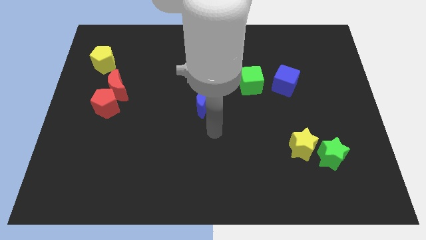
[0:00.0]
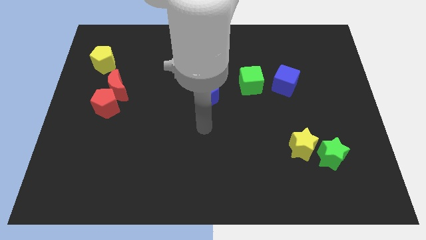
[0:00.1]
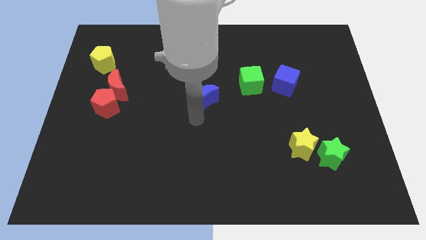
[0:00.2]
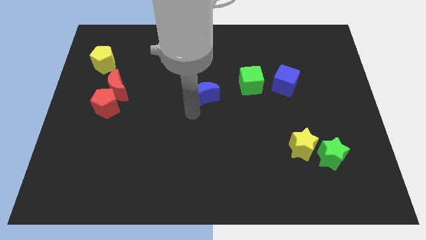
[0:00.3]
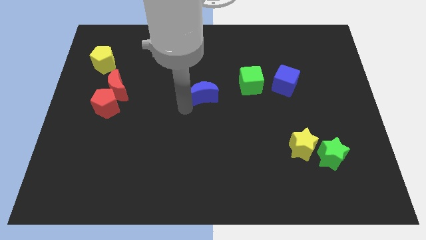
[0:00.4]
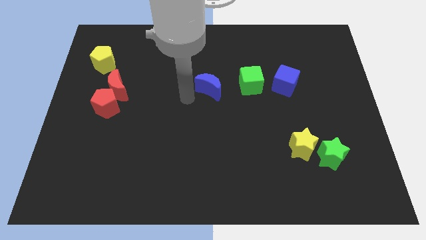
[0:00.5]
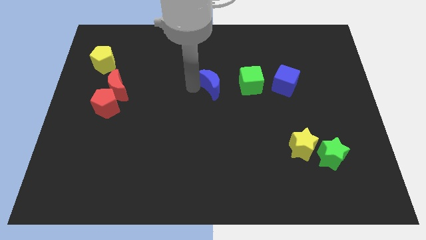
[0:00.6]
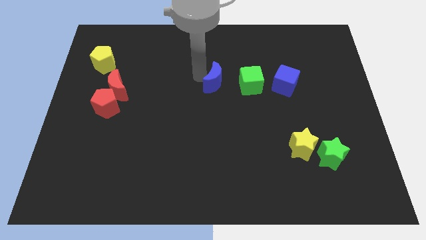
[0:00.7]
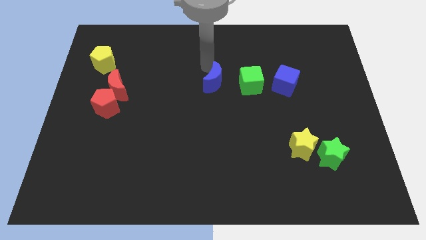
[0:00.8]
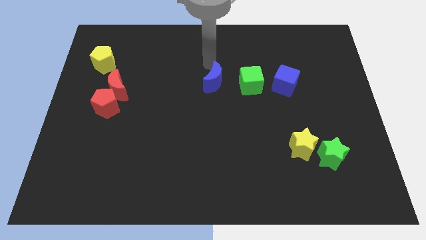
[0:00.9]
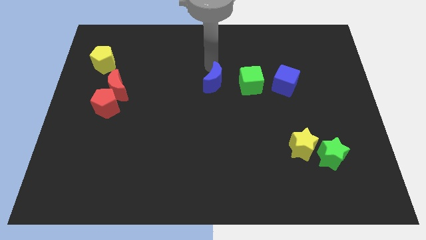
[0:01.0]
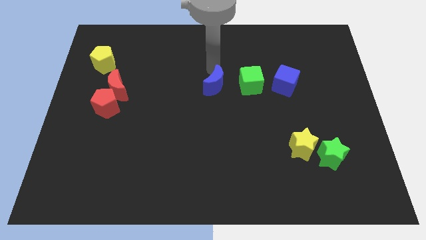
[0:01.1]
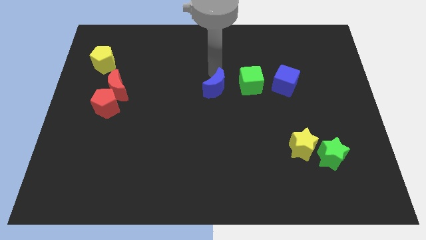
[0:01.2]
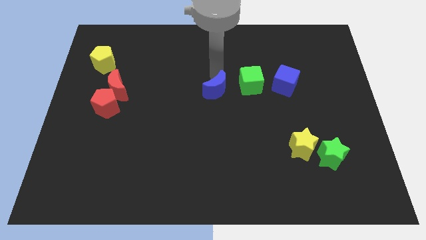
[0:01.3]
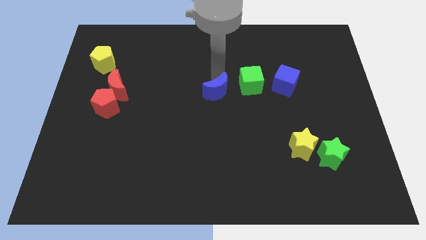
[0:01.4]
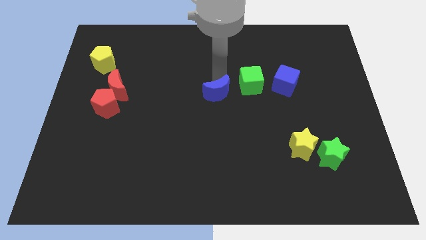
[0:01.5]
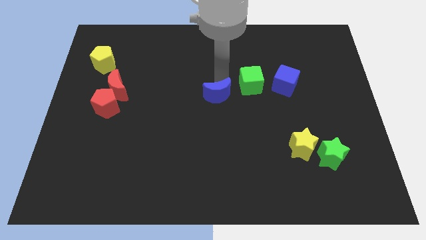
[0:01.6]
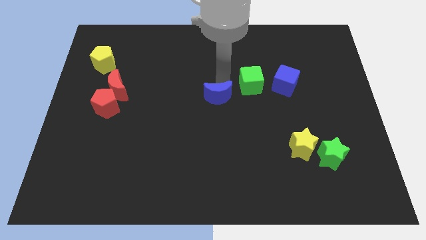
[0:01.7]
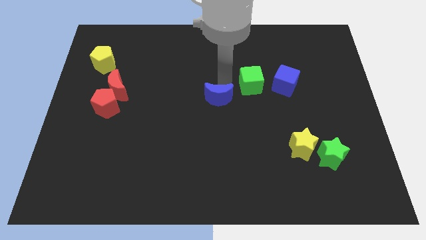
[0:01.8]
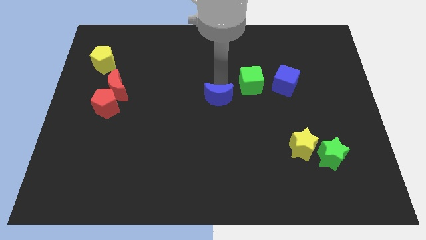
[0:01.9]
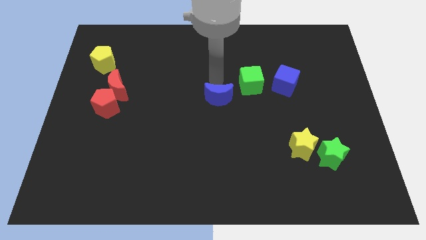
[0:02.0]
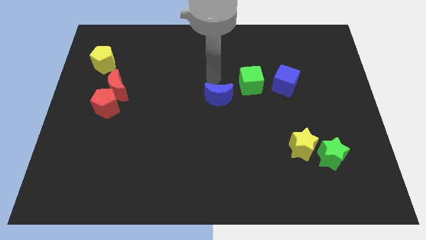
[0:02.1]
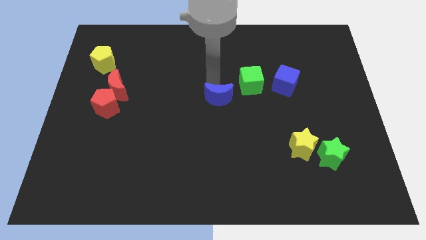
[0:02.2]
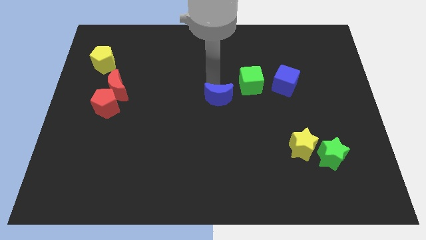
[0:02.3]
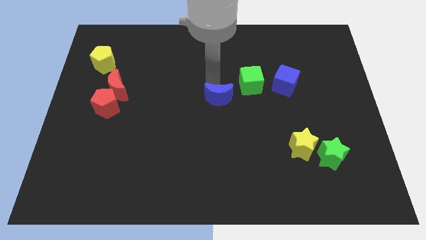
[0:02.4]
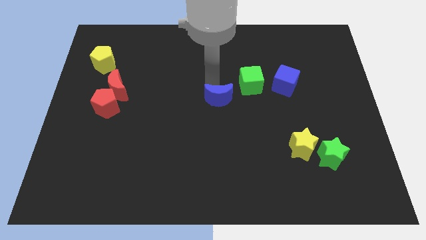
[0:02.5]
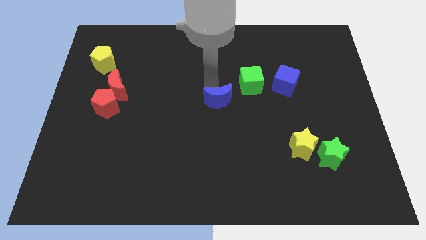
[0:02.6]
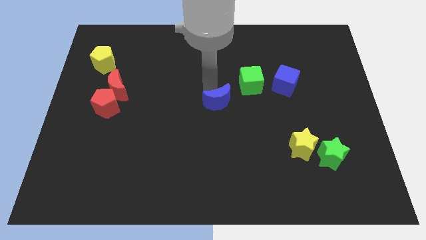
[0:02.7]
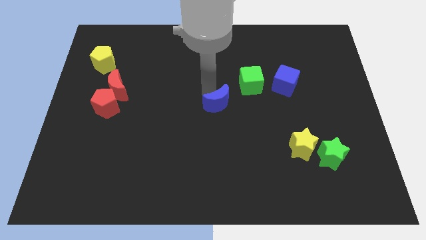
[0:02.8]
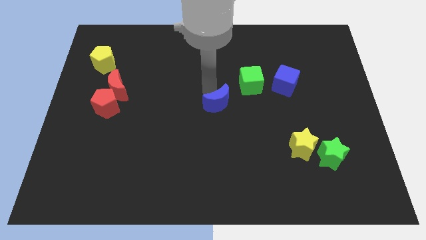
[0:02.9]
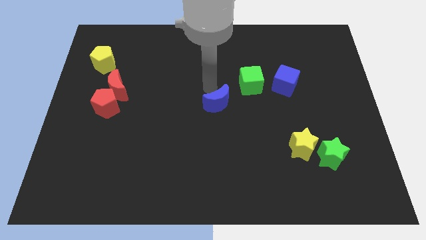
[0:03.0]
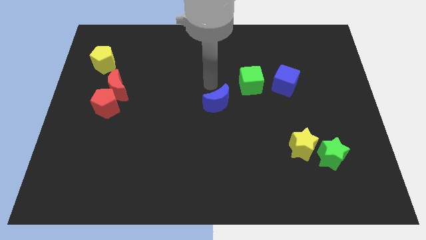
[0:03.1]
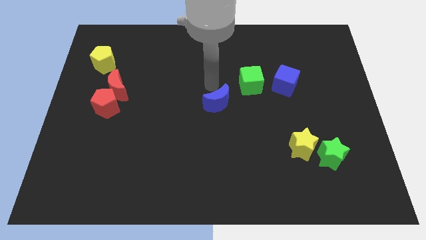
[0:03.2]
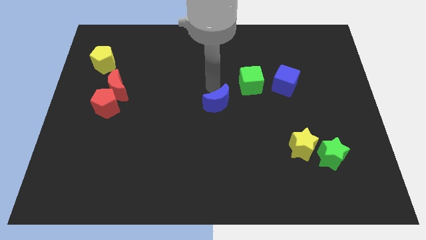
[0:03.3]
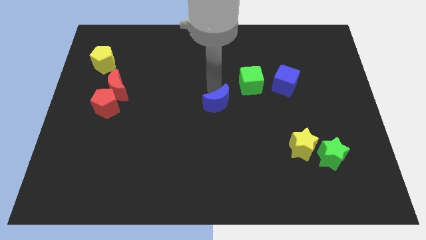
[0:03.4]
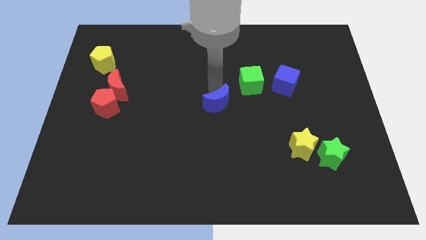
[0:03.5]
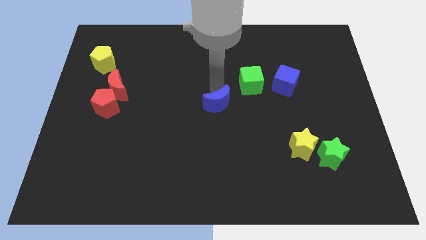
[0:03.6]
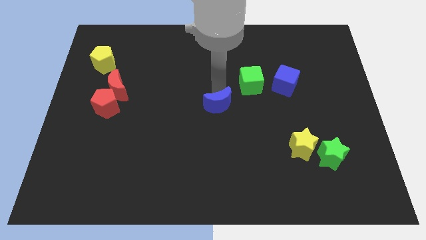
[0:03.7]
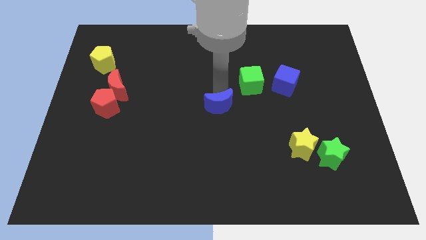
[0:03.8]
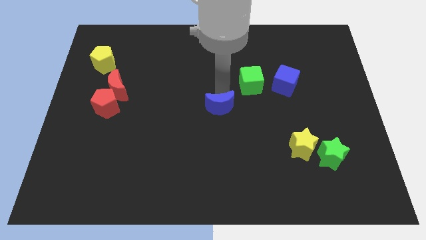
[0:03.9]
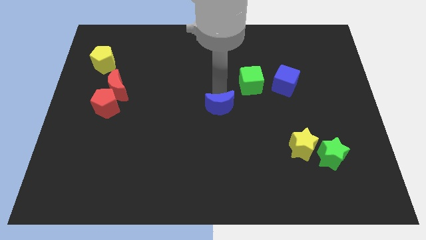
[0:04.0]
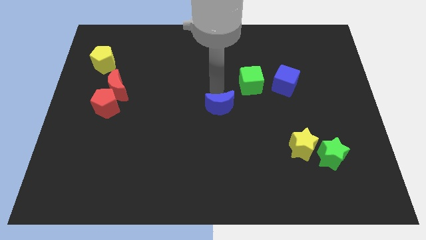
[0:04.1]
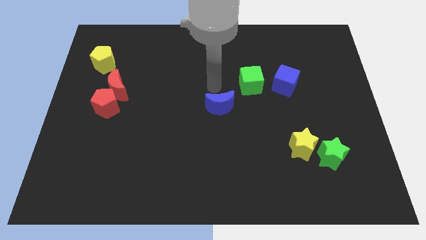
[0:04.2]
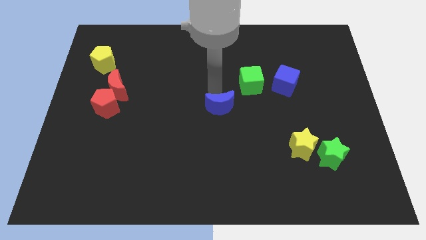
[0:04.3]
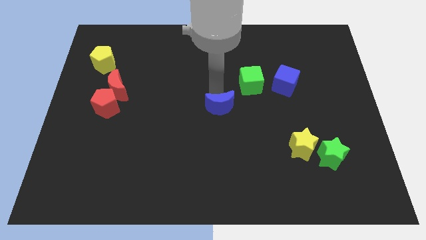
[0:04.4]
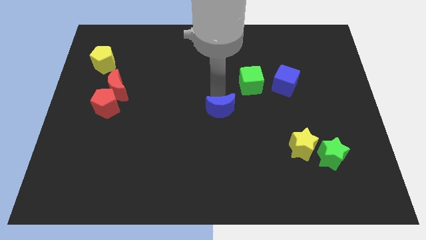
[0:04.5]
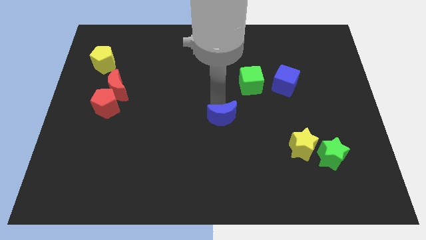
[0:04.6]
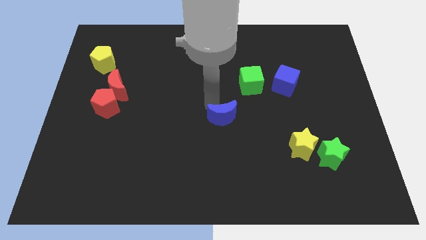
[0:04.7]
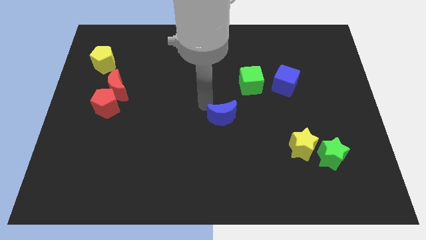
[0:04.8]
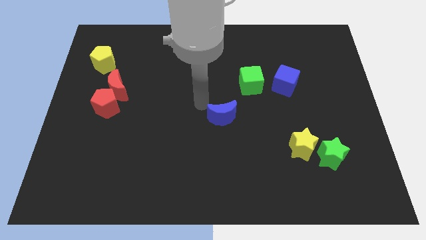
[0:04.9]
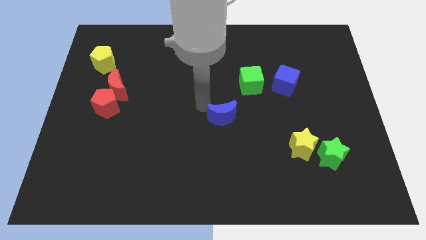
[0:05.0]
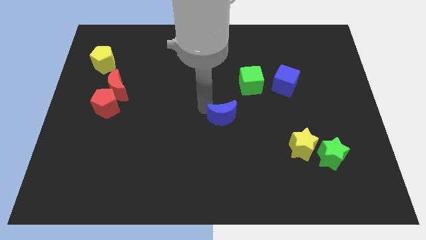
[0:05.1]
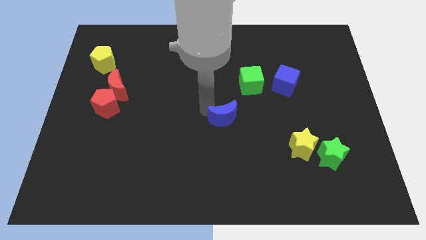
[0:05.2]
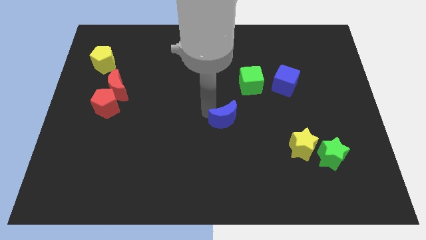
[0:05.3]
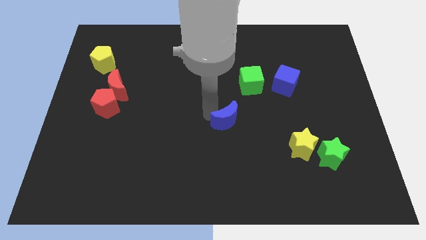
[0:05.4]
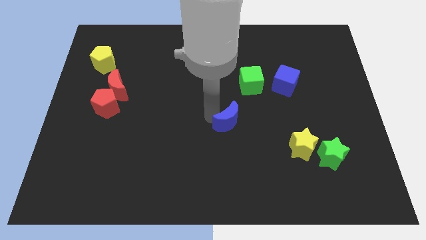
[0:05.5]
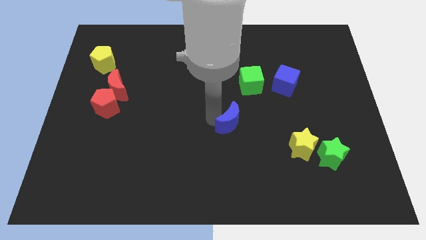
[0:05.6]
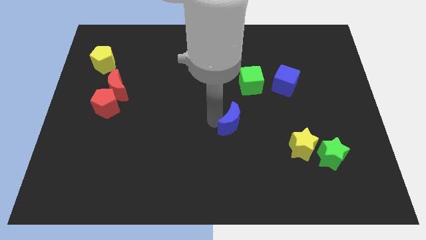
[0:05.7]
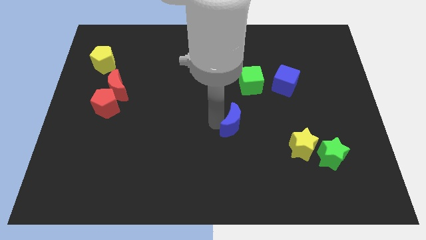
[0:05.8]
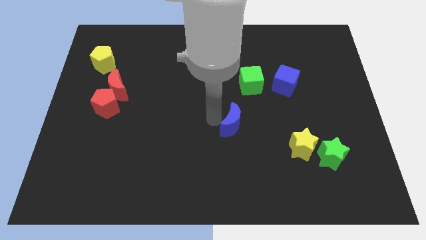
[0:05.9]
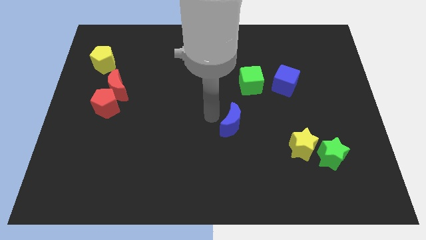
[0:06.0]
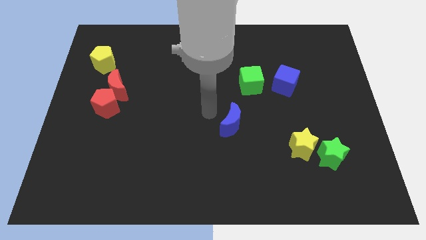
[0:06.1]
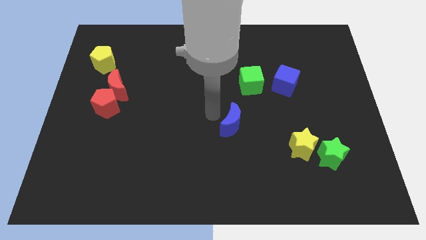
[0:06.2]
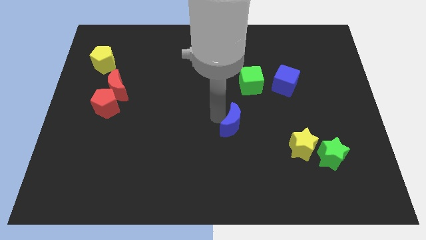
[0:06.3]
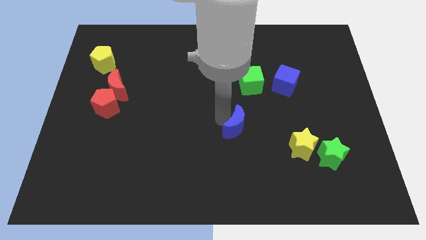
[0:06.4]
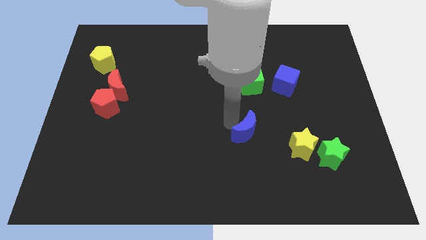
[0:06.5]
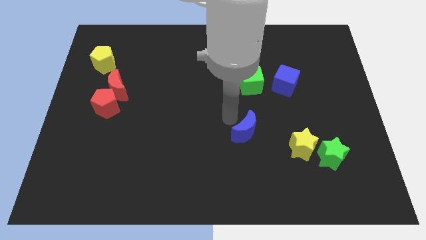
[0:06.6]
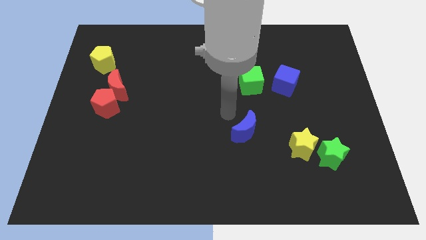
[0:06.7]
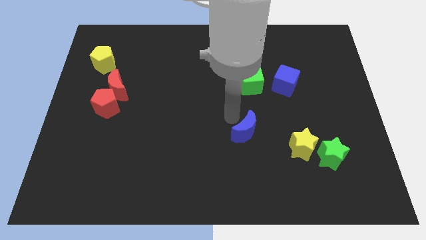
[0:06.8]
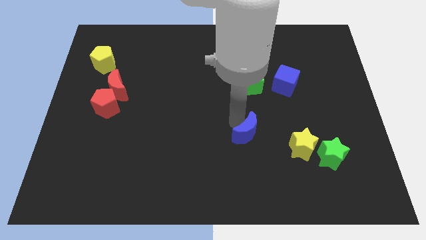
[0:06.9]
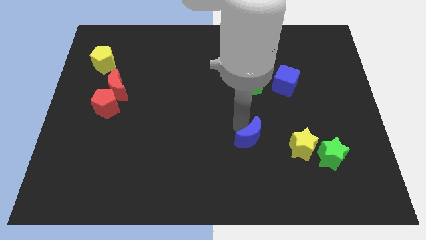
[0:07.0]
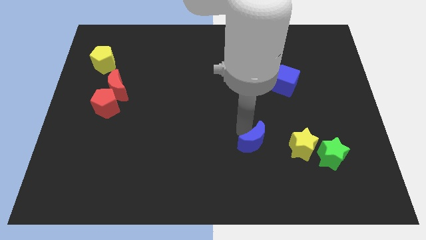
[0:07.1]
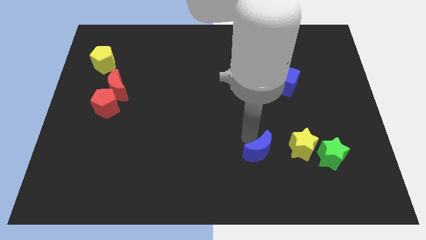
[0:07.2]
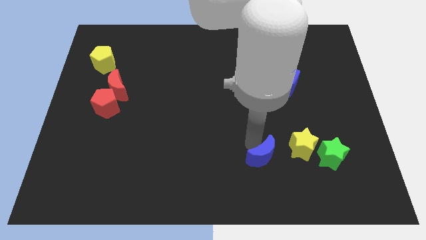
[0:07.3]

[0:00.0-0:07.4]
push the blue moon diagonally down and to the left of the yellow star
